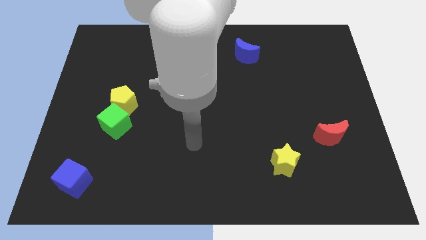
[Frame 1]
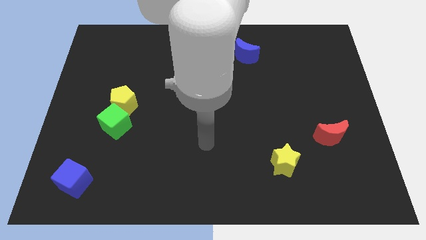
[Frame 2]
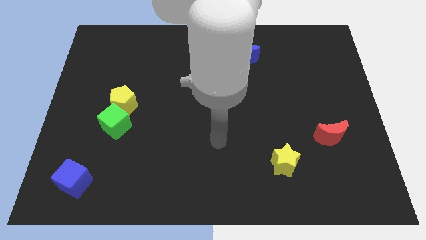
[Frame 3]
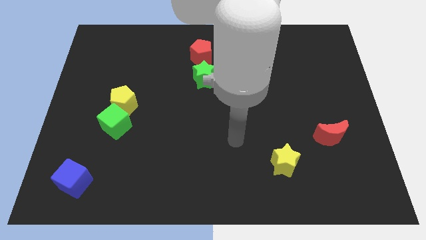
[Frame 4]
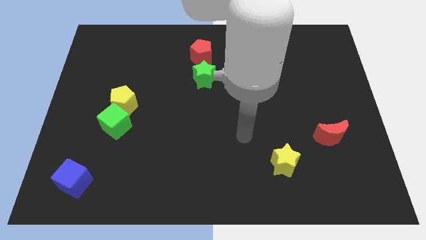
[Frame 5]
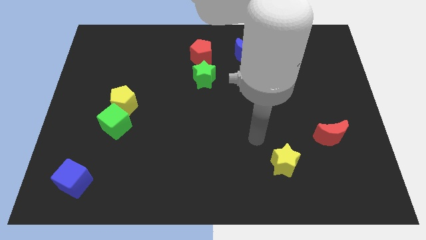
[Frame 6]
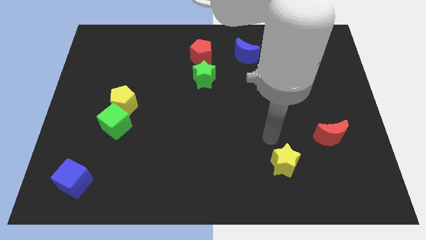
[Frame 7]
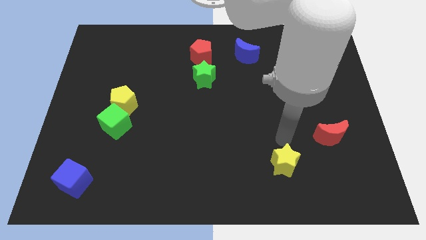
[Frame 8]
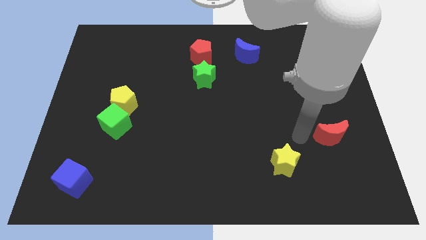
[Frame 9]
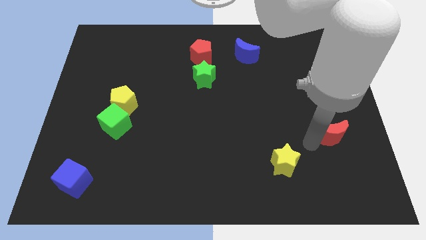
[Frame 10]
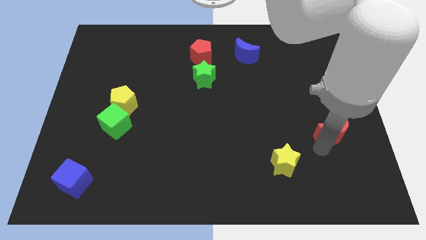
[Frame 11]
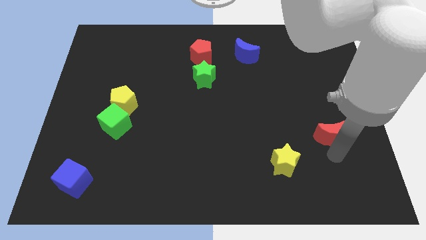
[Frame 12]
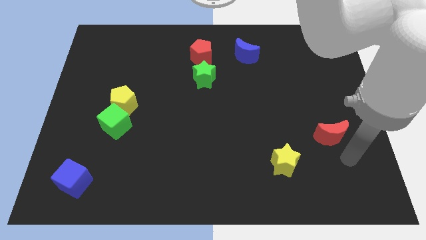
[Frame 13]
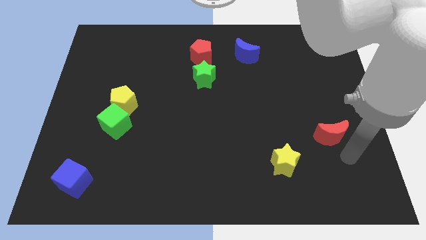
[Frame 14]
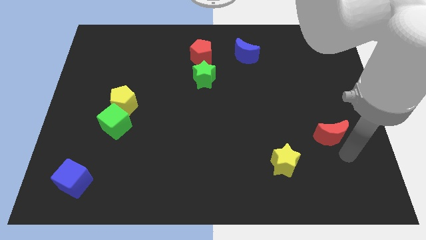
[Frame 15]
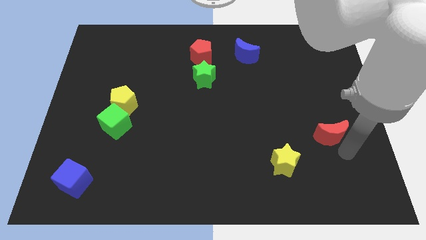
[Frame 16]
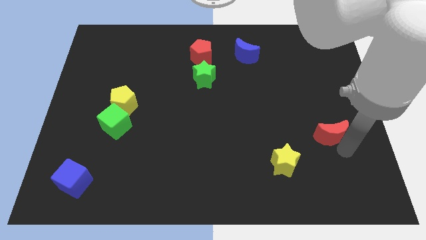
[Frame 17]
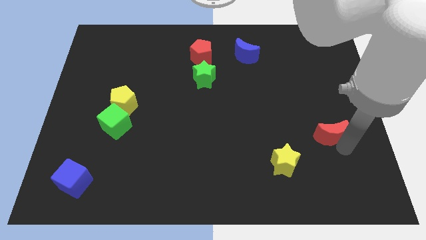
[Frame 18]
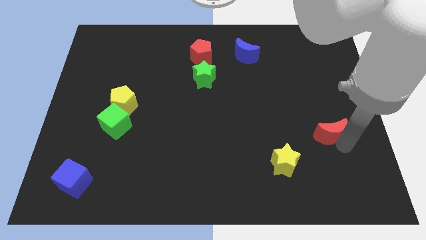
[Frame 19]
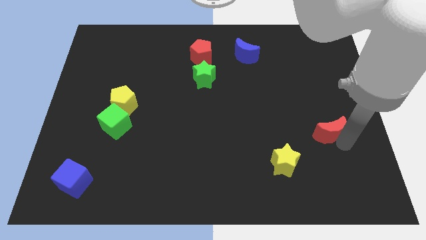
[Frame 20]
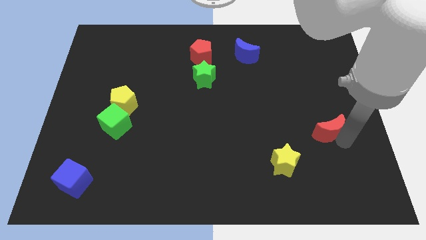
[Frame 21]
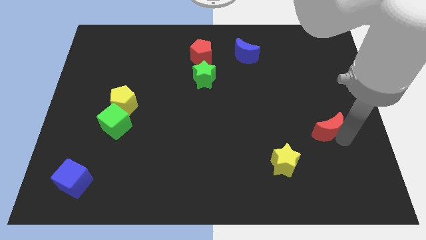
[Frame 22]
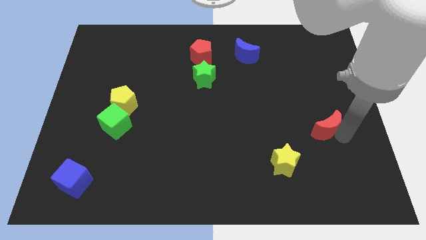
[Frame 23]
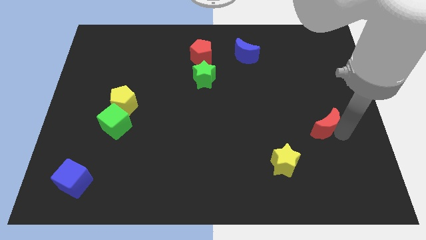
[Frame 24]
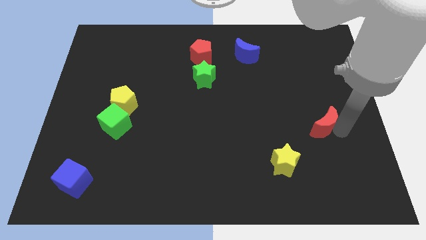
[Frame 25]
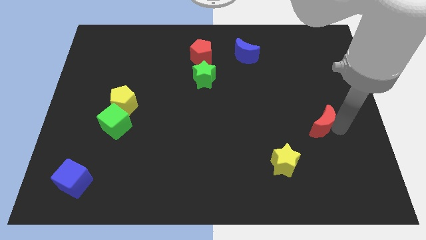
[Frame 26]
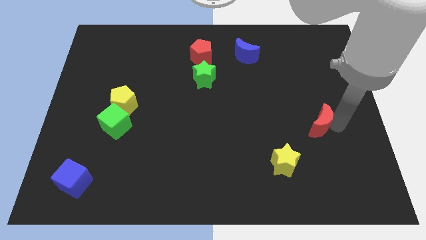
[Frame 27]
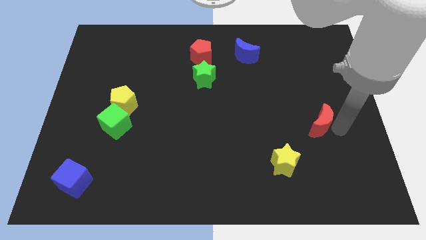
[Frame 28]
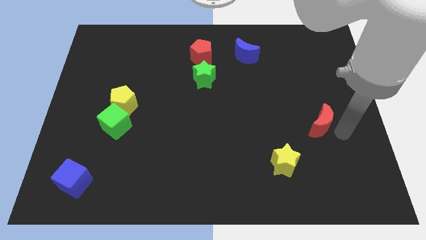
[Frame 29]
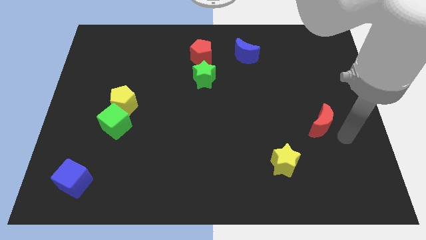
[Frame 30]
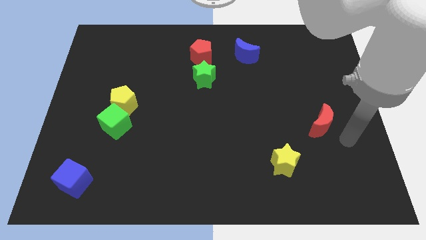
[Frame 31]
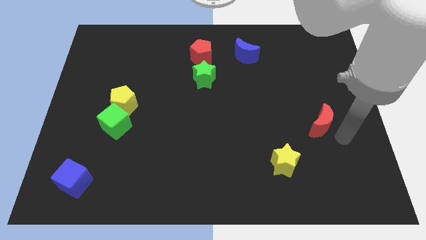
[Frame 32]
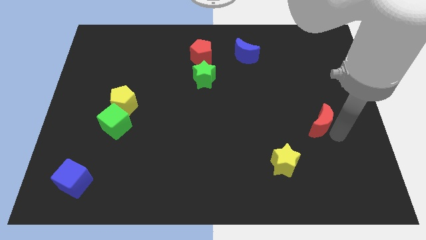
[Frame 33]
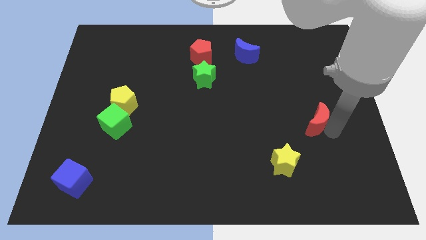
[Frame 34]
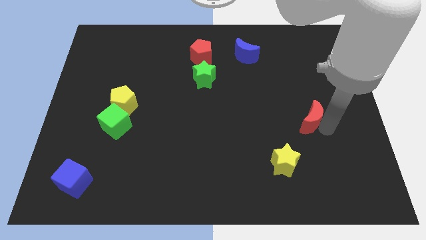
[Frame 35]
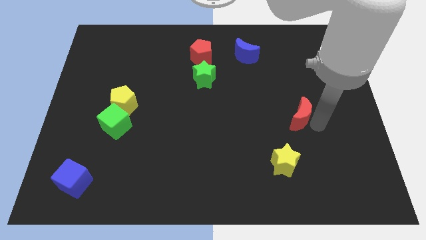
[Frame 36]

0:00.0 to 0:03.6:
slightly slide the red moon diagonally up and to the left

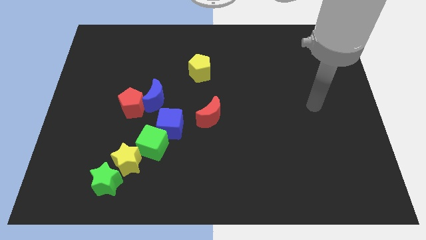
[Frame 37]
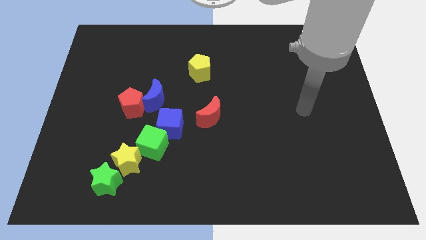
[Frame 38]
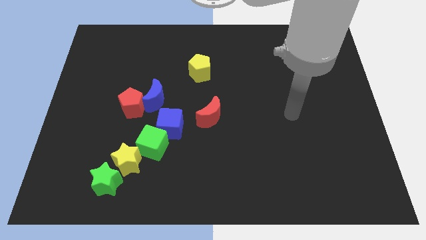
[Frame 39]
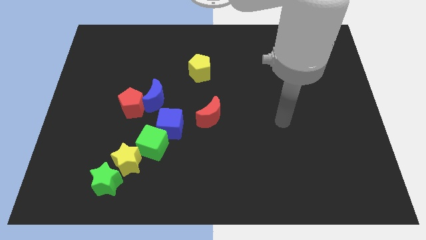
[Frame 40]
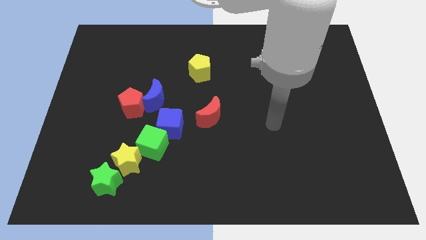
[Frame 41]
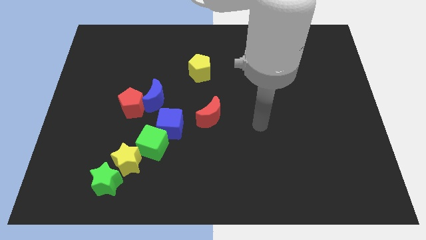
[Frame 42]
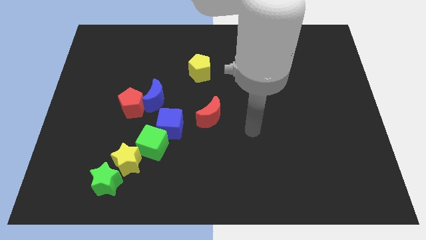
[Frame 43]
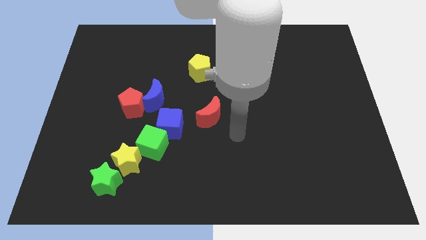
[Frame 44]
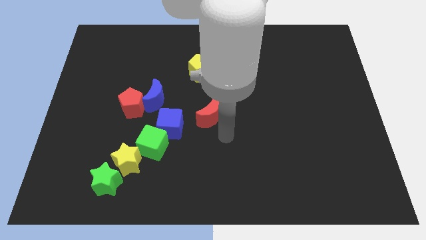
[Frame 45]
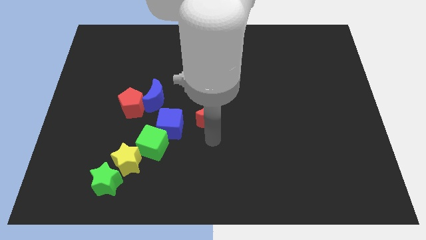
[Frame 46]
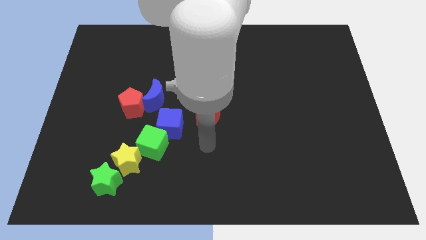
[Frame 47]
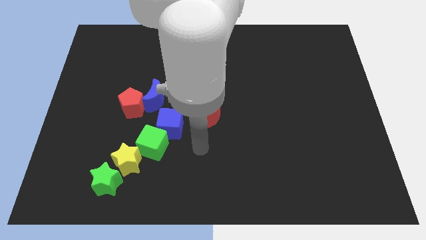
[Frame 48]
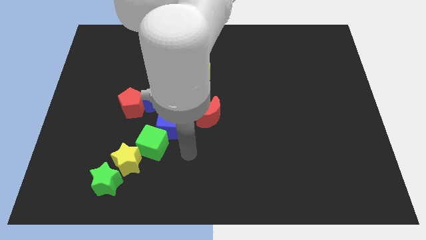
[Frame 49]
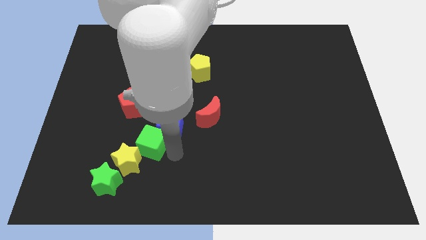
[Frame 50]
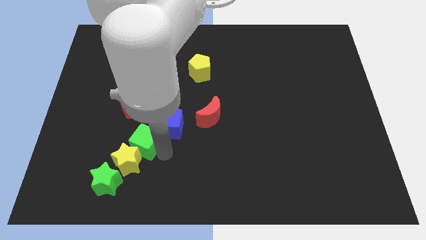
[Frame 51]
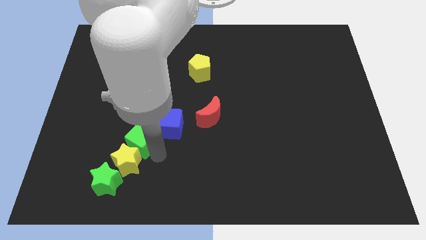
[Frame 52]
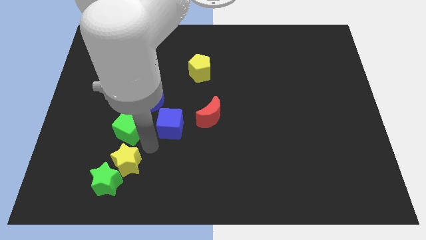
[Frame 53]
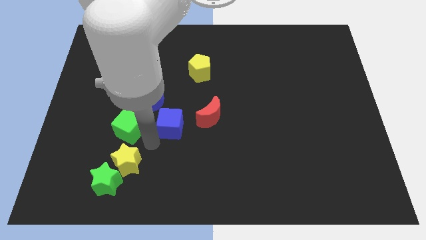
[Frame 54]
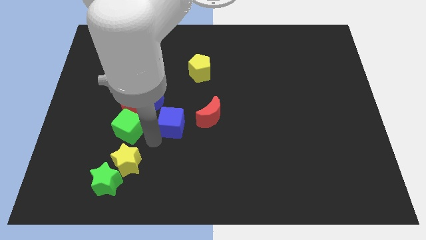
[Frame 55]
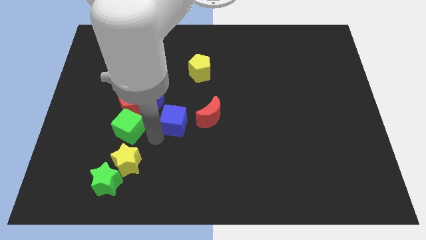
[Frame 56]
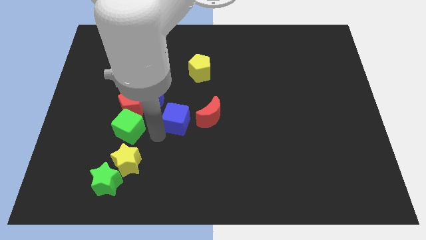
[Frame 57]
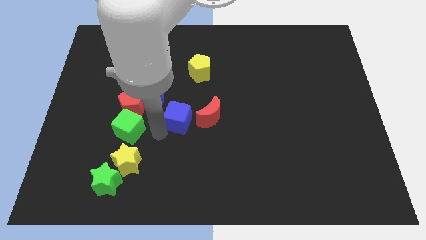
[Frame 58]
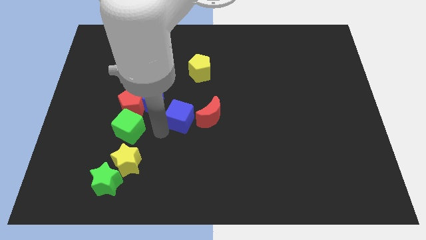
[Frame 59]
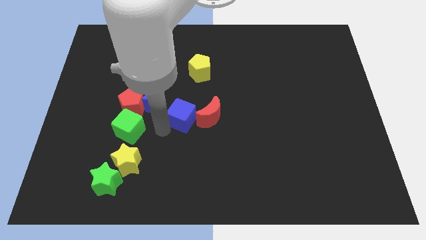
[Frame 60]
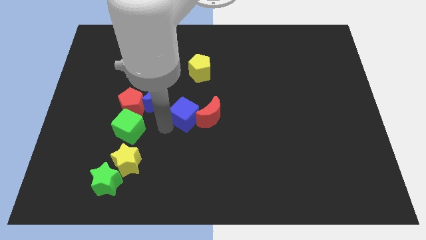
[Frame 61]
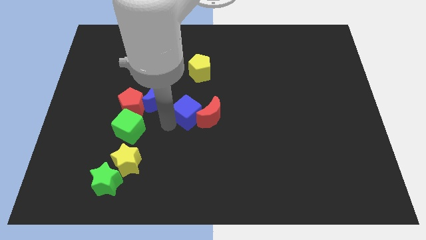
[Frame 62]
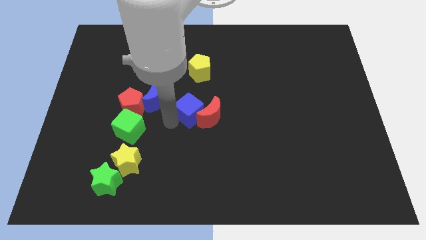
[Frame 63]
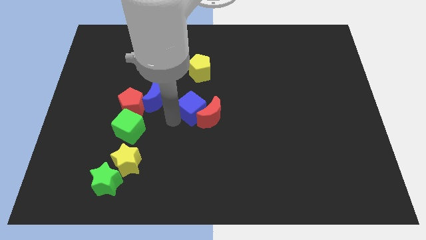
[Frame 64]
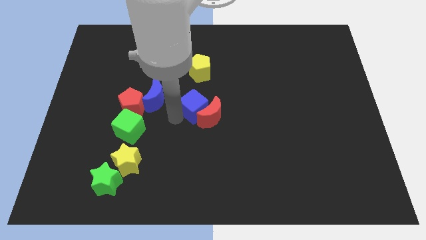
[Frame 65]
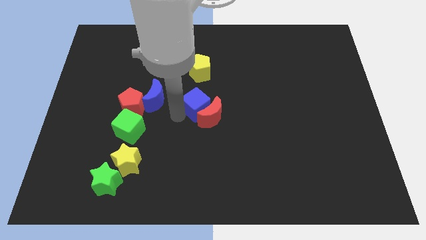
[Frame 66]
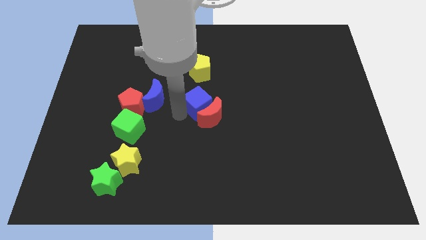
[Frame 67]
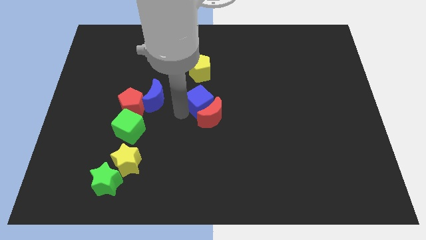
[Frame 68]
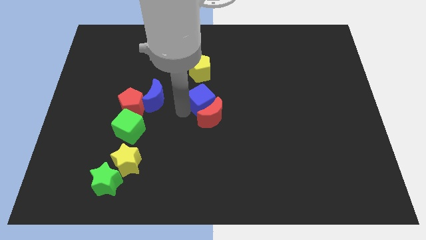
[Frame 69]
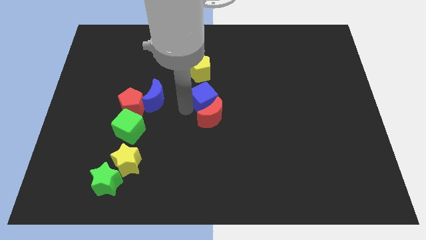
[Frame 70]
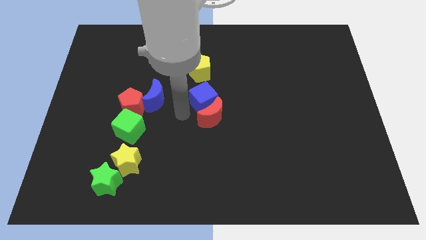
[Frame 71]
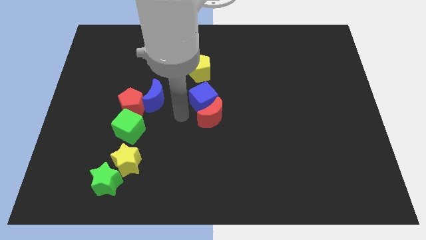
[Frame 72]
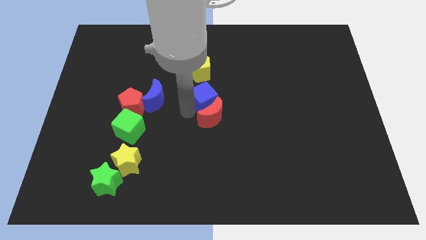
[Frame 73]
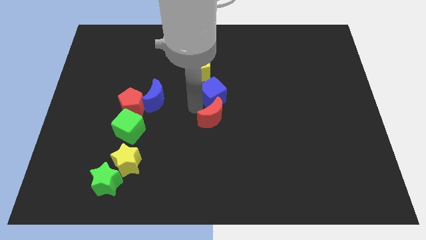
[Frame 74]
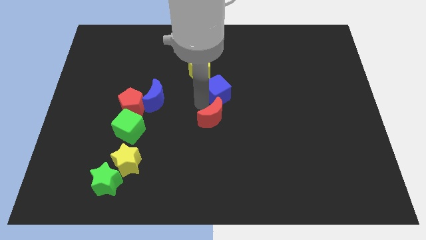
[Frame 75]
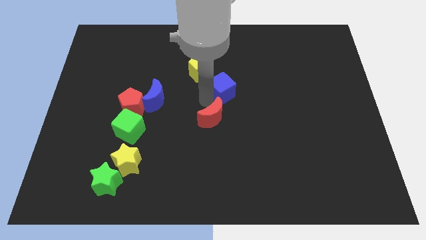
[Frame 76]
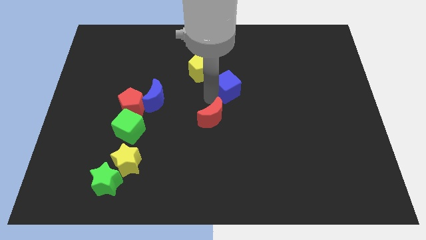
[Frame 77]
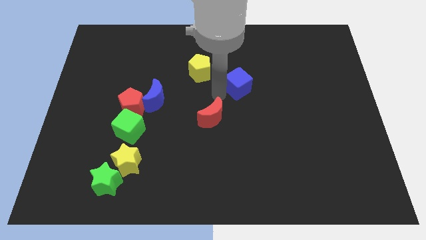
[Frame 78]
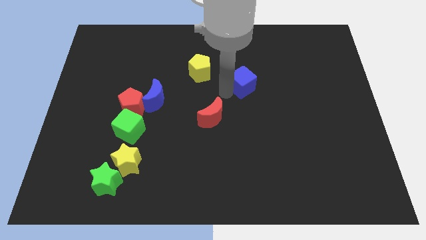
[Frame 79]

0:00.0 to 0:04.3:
push the blue cube up and to the right diagonally
